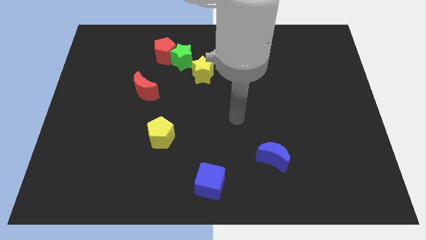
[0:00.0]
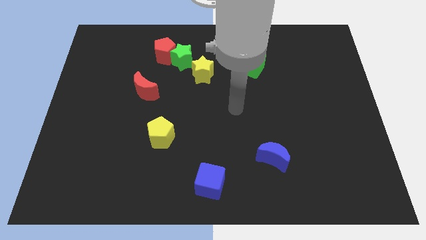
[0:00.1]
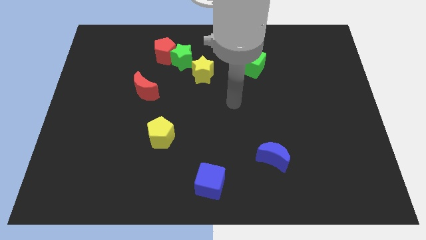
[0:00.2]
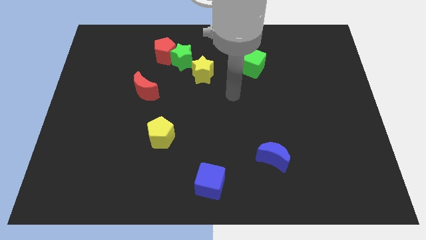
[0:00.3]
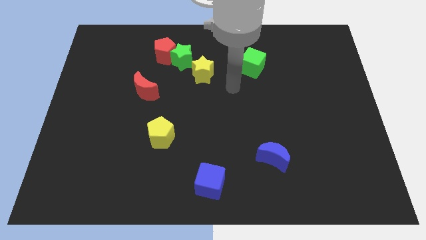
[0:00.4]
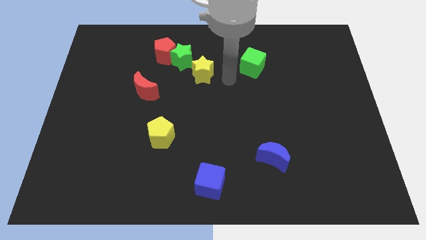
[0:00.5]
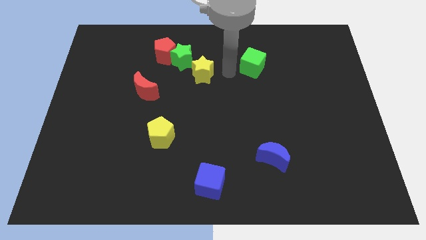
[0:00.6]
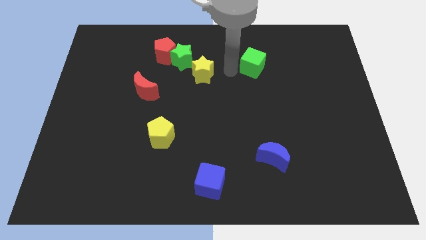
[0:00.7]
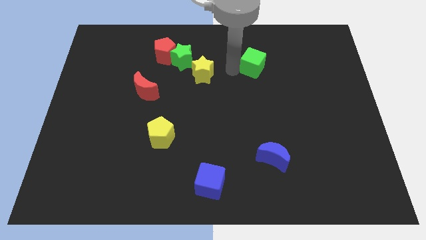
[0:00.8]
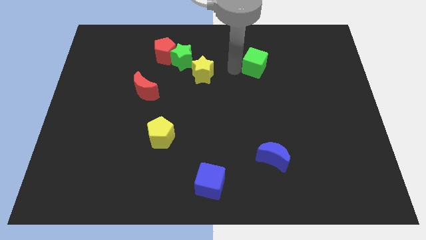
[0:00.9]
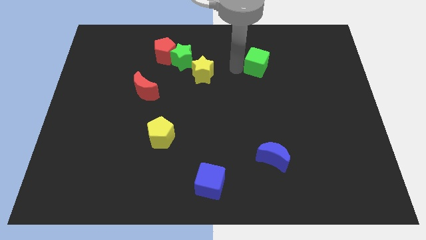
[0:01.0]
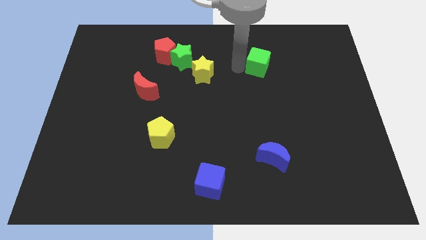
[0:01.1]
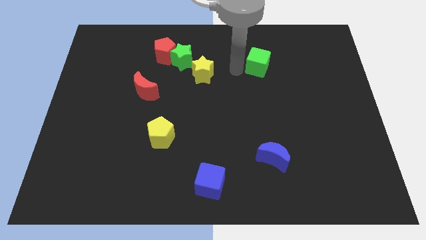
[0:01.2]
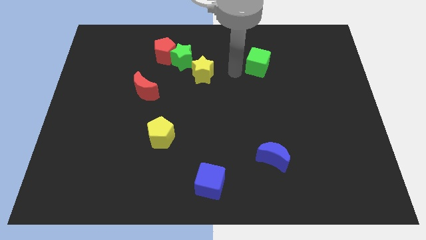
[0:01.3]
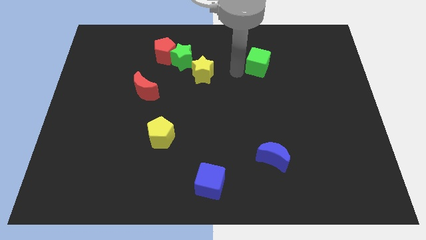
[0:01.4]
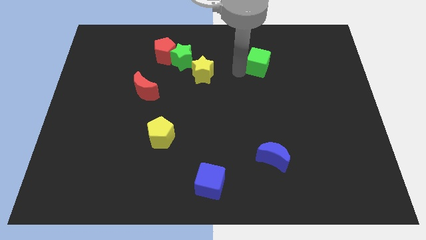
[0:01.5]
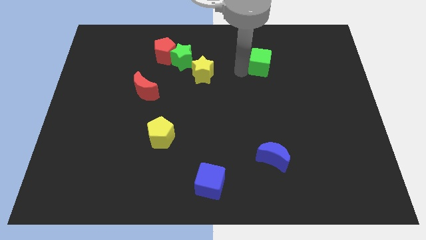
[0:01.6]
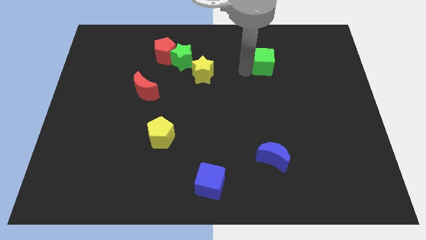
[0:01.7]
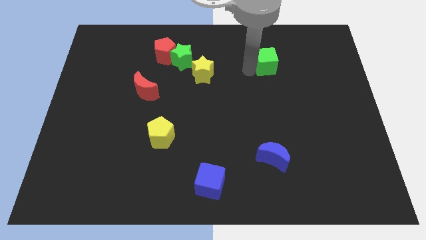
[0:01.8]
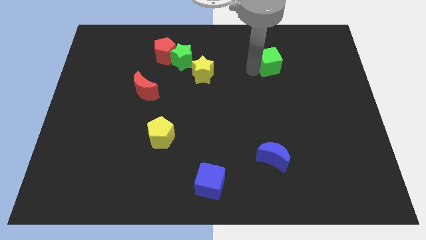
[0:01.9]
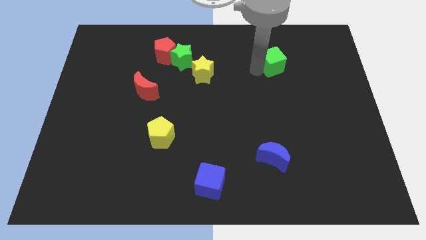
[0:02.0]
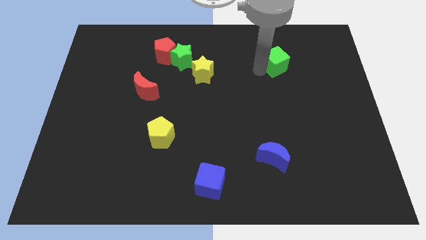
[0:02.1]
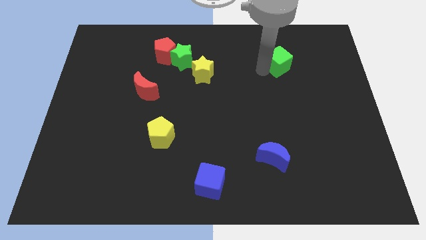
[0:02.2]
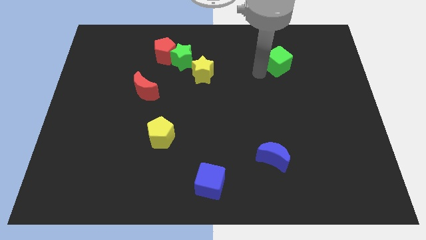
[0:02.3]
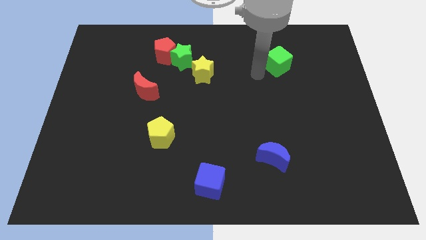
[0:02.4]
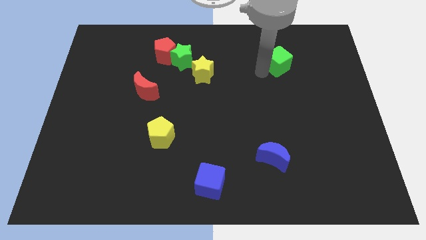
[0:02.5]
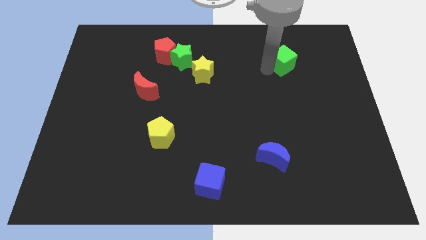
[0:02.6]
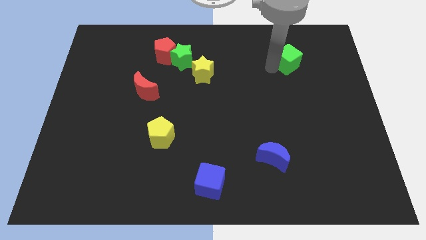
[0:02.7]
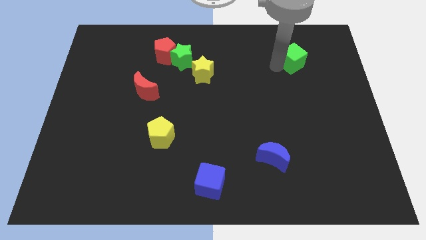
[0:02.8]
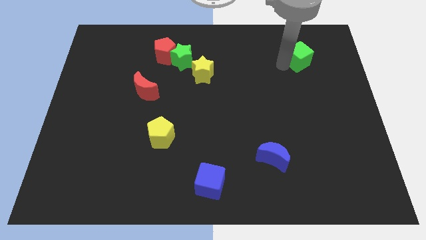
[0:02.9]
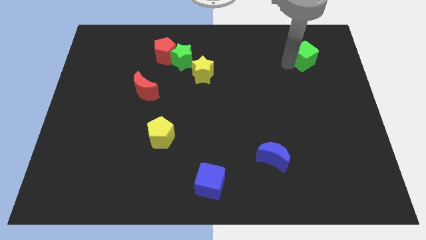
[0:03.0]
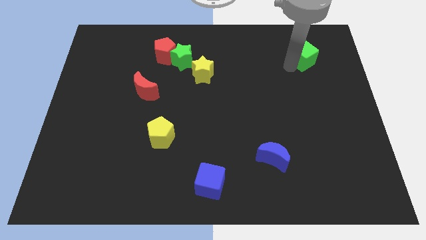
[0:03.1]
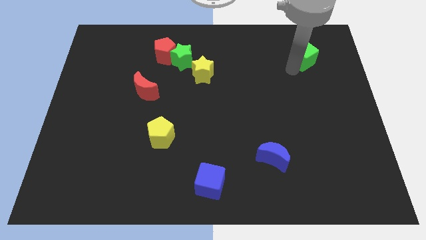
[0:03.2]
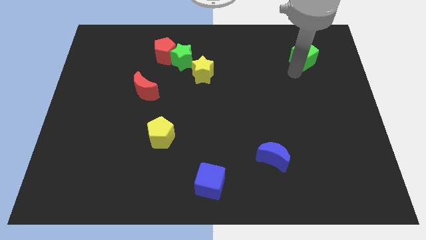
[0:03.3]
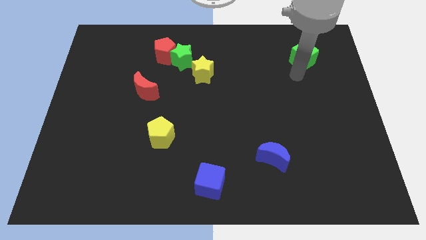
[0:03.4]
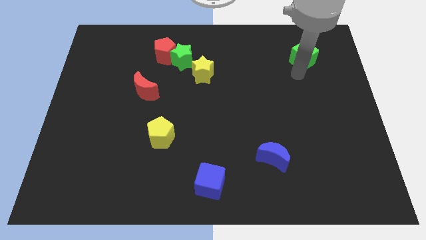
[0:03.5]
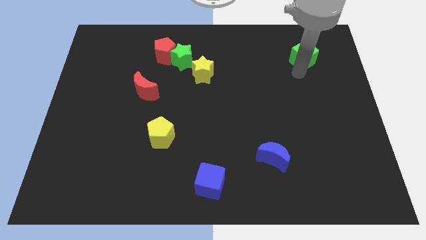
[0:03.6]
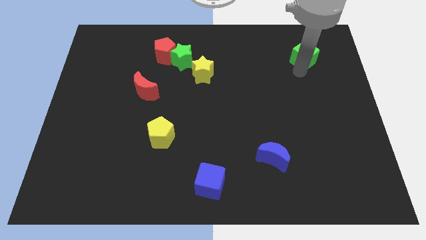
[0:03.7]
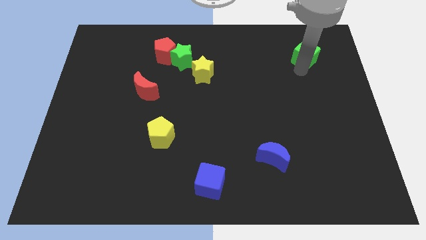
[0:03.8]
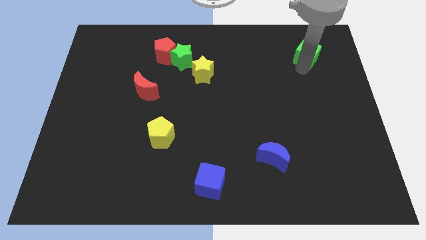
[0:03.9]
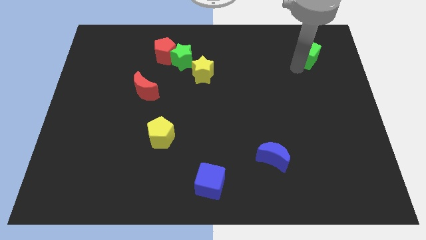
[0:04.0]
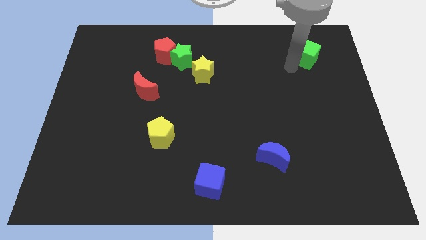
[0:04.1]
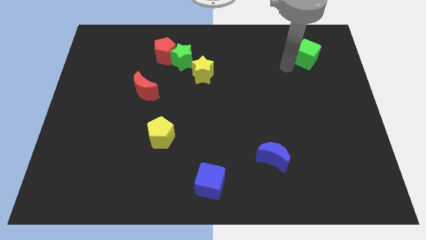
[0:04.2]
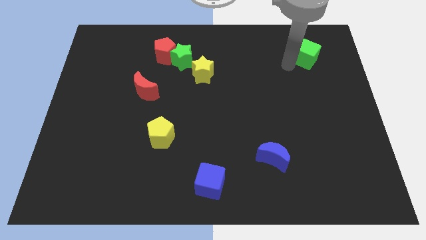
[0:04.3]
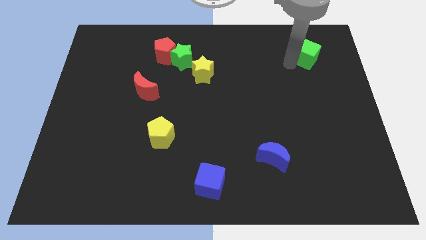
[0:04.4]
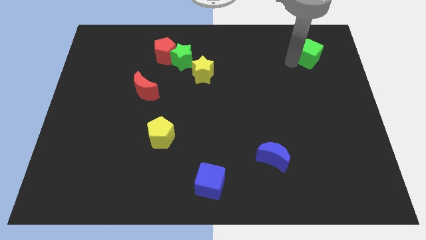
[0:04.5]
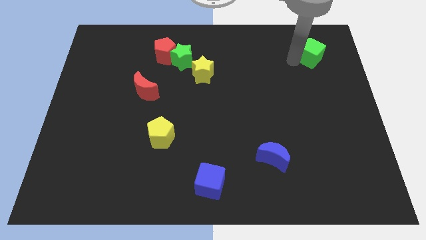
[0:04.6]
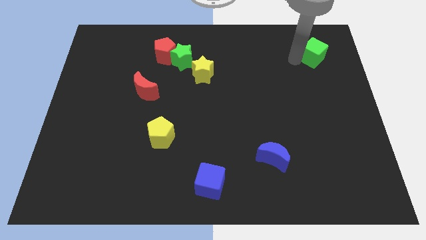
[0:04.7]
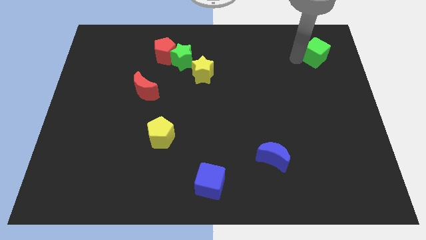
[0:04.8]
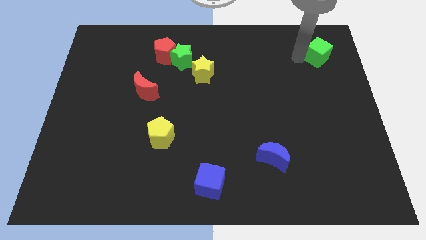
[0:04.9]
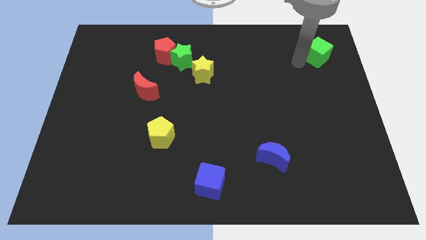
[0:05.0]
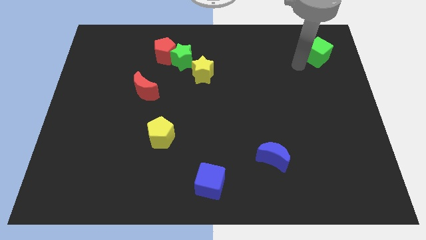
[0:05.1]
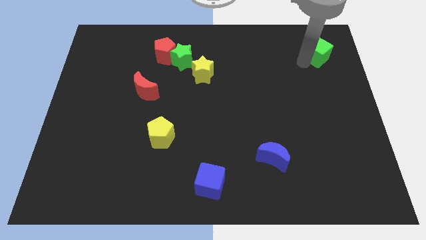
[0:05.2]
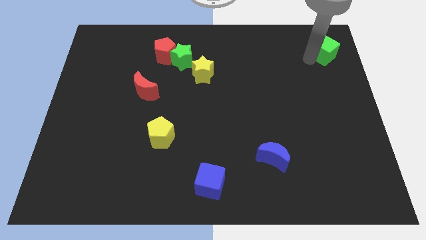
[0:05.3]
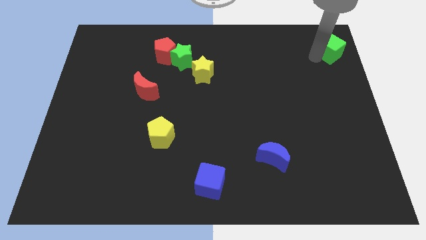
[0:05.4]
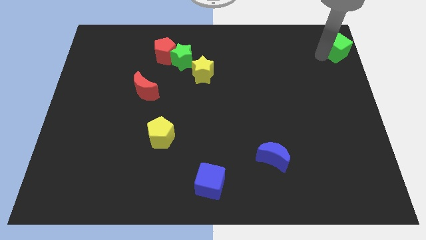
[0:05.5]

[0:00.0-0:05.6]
put the green cube to the top right

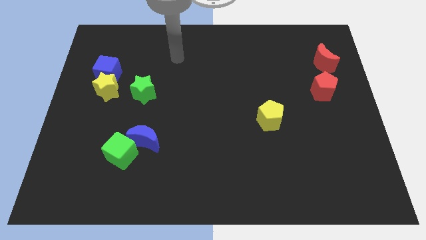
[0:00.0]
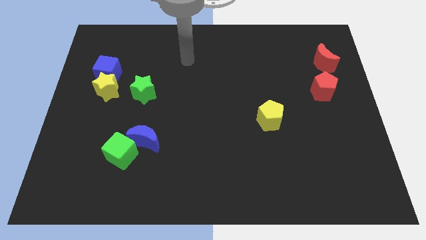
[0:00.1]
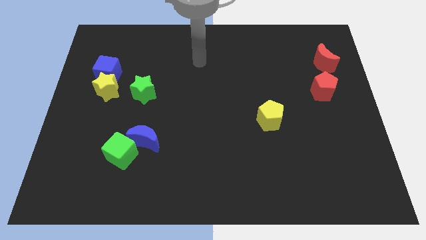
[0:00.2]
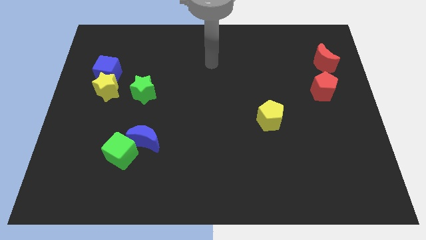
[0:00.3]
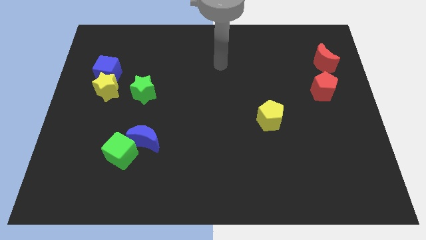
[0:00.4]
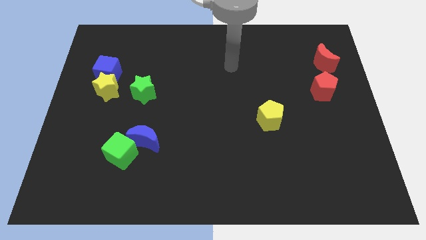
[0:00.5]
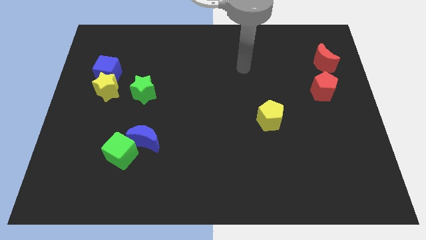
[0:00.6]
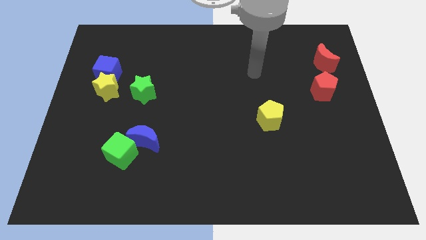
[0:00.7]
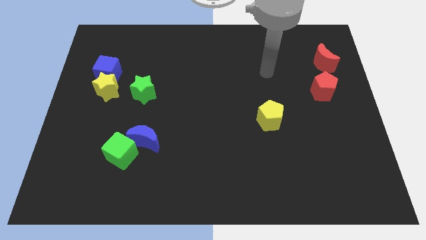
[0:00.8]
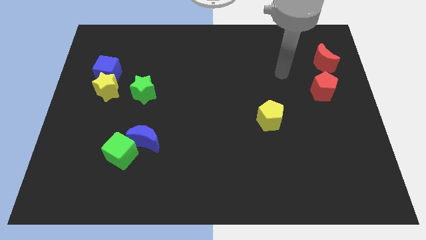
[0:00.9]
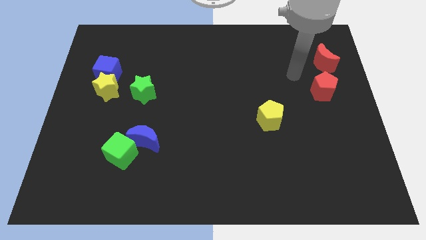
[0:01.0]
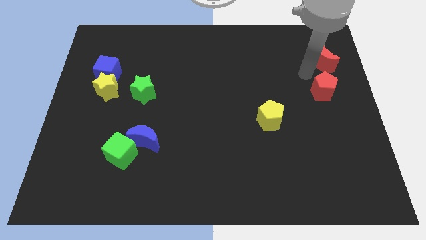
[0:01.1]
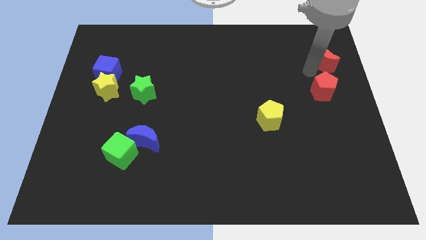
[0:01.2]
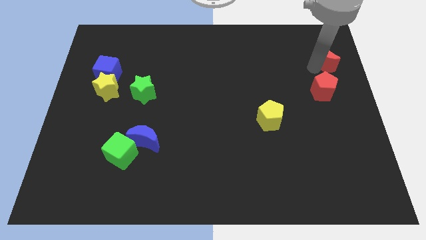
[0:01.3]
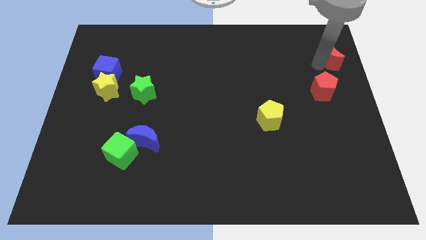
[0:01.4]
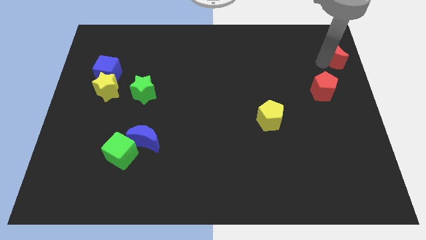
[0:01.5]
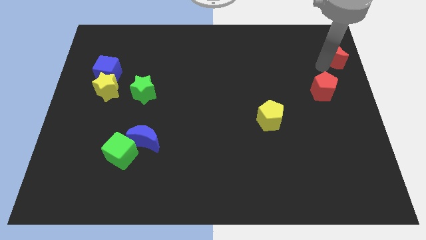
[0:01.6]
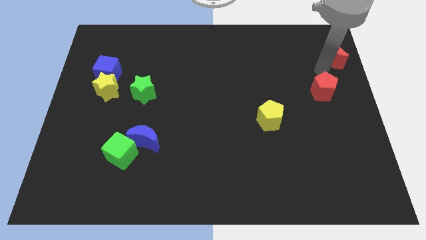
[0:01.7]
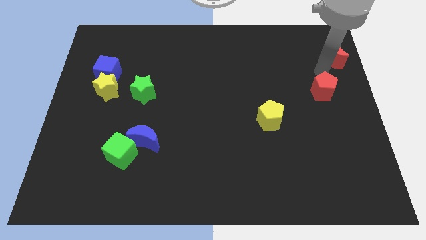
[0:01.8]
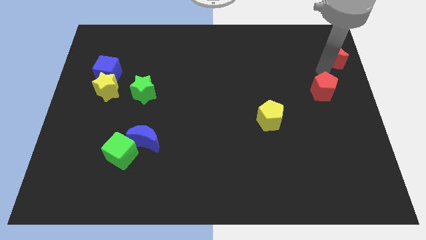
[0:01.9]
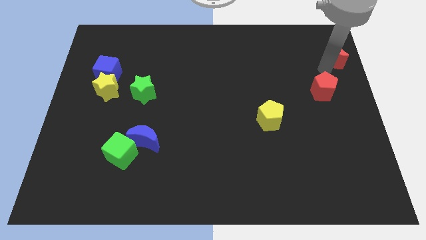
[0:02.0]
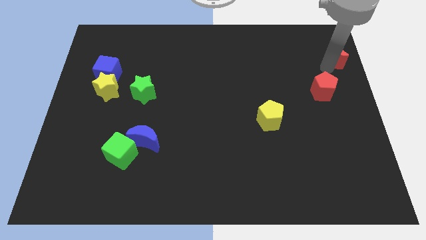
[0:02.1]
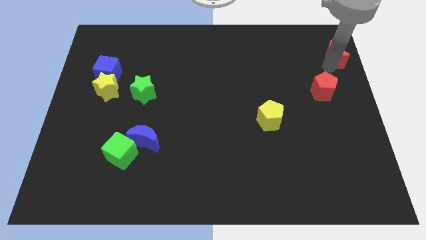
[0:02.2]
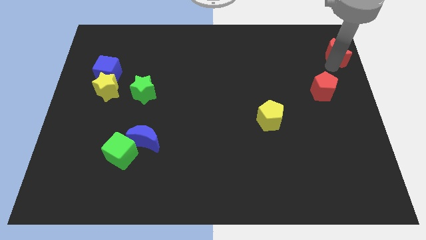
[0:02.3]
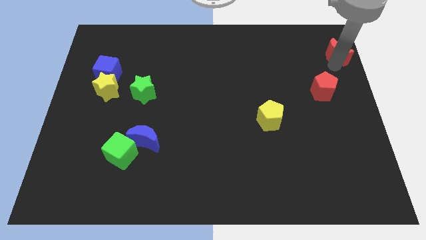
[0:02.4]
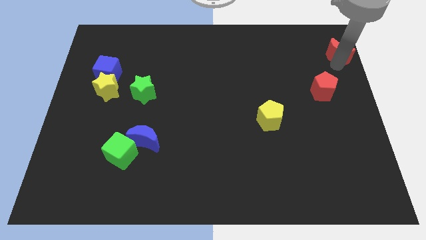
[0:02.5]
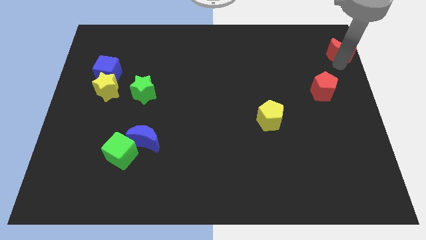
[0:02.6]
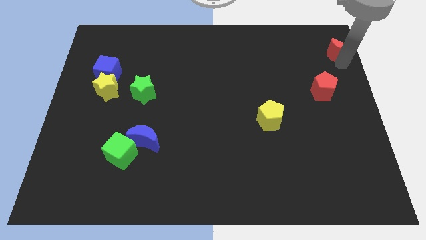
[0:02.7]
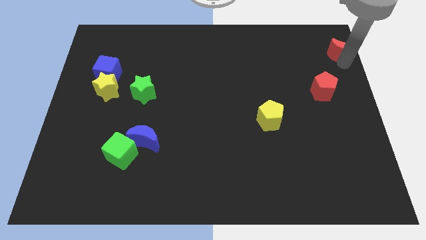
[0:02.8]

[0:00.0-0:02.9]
slide the red moon to the top right corner
